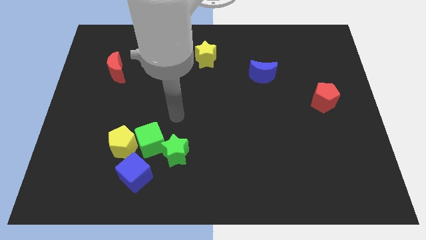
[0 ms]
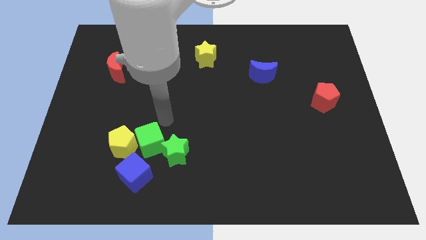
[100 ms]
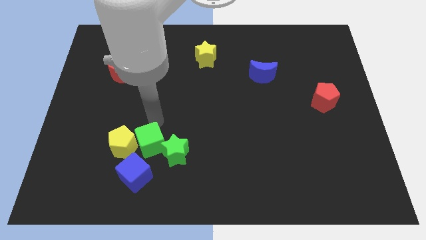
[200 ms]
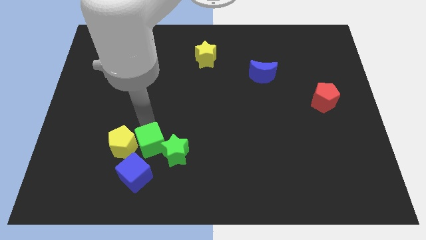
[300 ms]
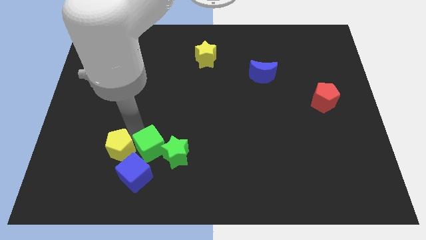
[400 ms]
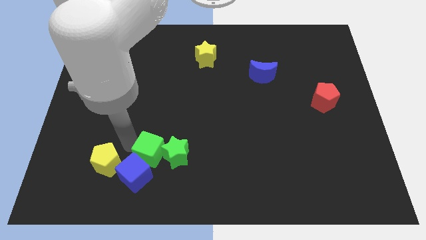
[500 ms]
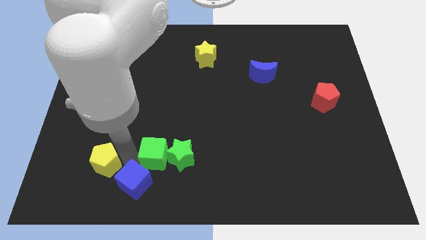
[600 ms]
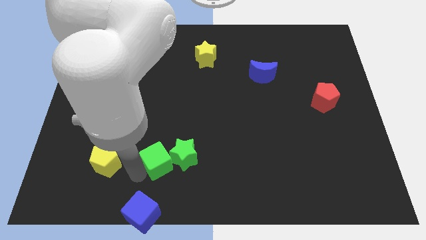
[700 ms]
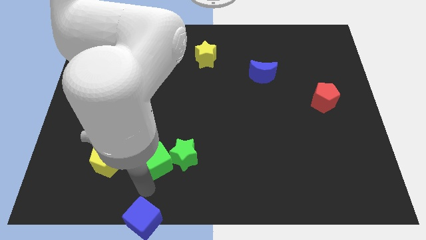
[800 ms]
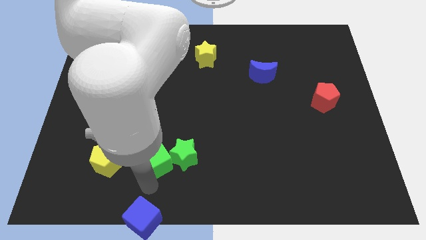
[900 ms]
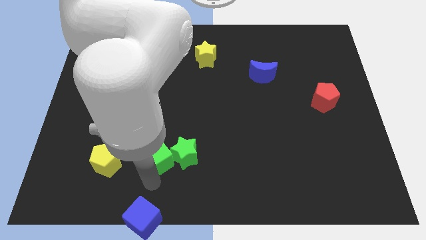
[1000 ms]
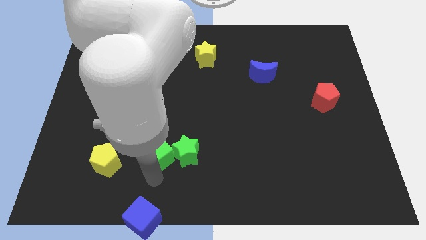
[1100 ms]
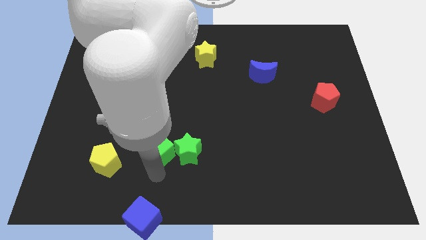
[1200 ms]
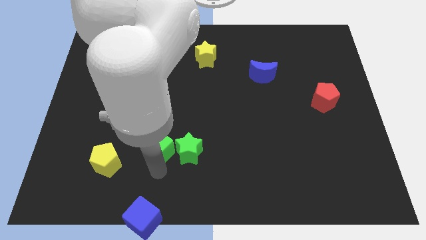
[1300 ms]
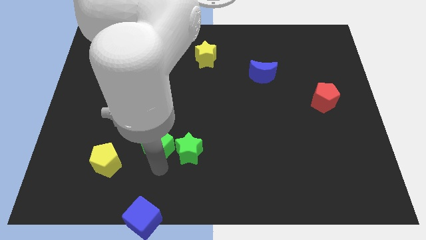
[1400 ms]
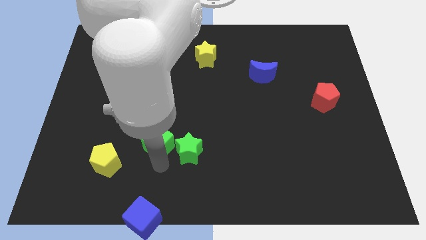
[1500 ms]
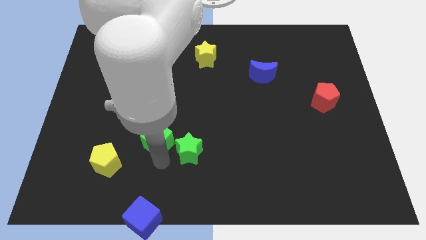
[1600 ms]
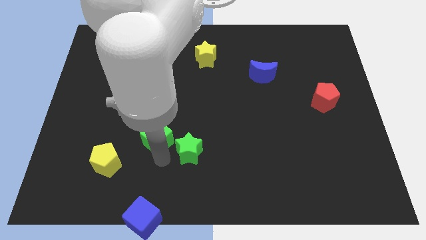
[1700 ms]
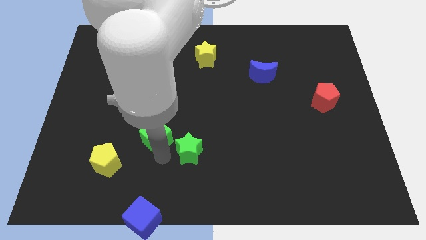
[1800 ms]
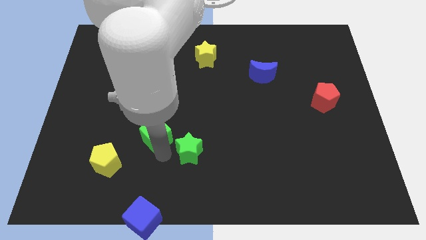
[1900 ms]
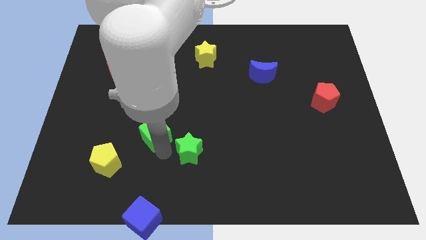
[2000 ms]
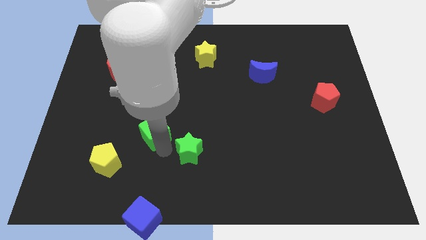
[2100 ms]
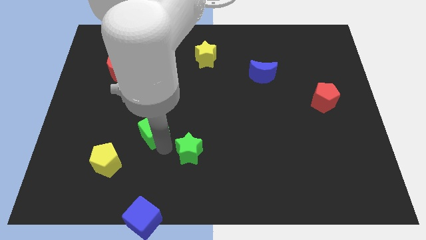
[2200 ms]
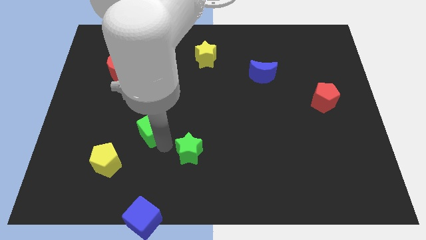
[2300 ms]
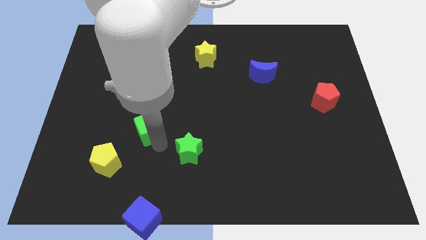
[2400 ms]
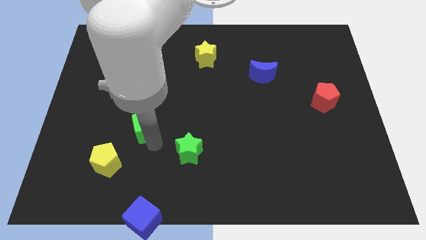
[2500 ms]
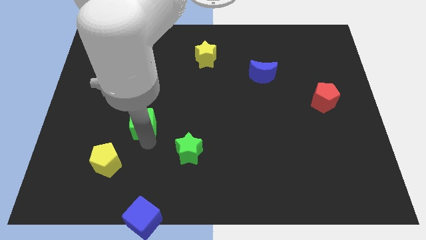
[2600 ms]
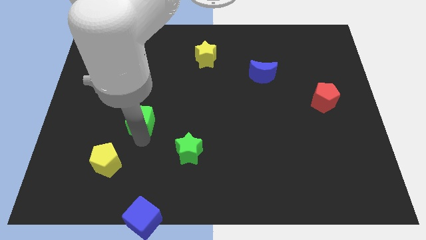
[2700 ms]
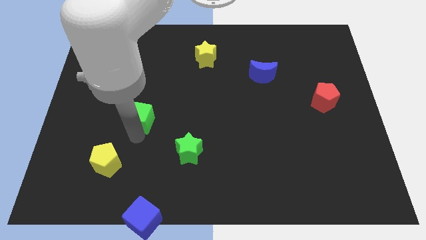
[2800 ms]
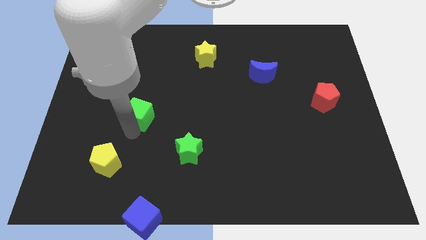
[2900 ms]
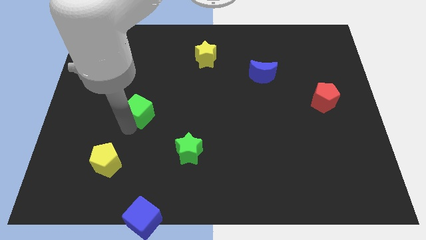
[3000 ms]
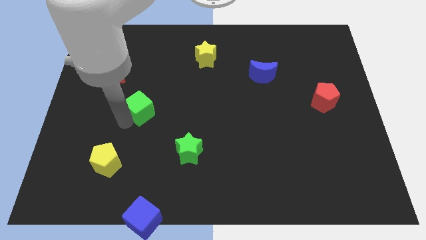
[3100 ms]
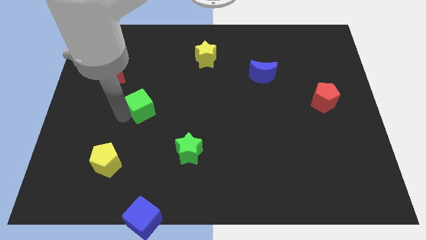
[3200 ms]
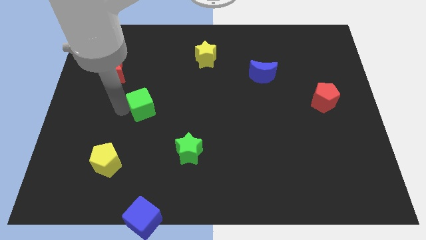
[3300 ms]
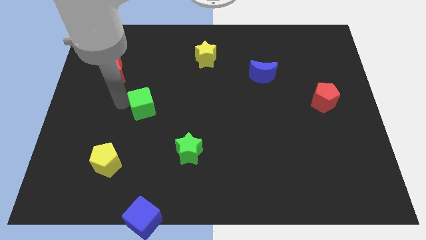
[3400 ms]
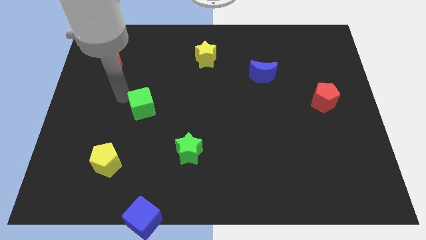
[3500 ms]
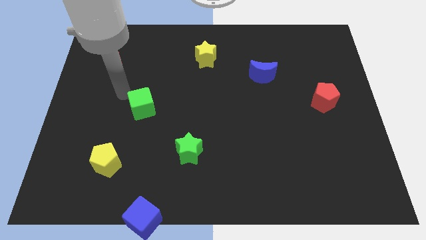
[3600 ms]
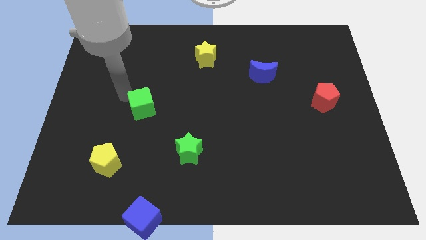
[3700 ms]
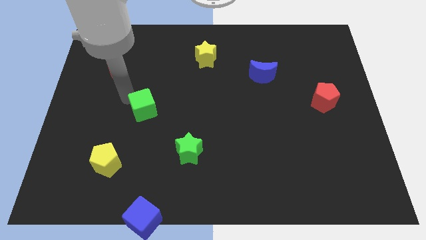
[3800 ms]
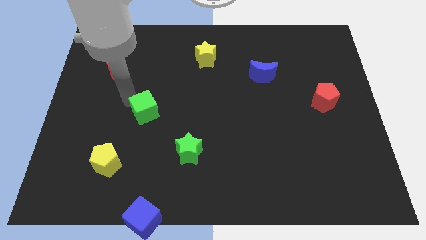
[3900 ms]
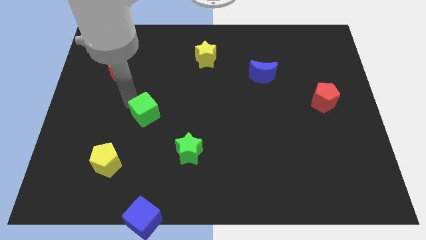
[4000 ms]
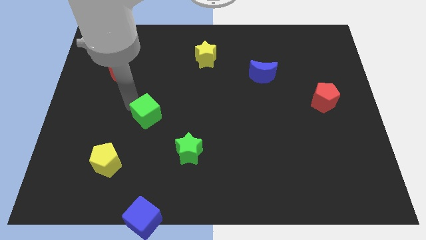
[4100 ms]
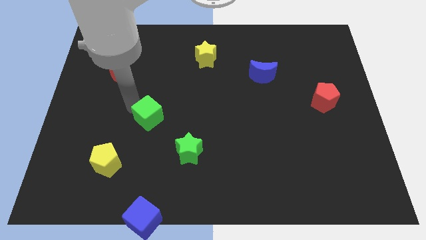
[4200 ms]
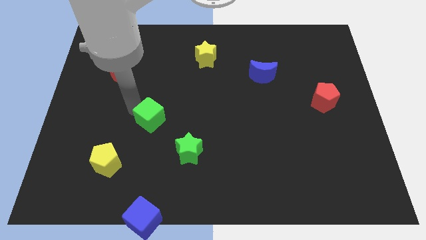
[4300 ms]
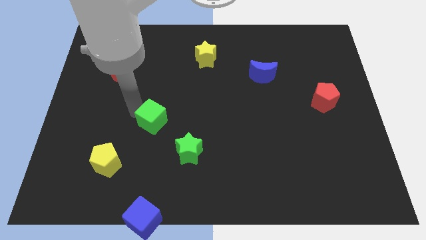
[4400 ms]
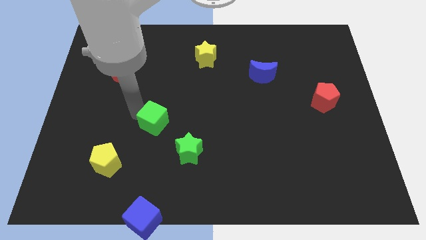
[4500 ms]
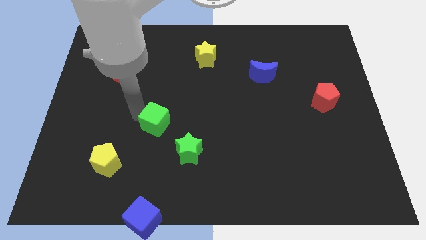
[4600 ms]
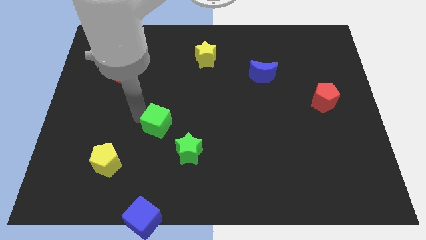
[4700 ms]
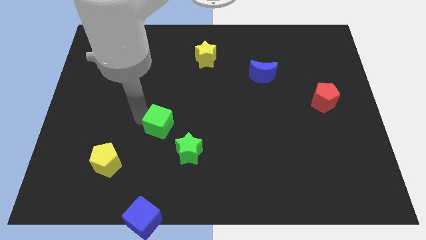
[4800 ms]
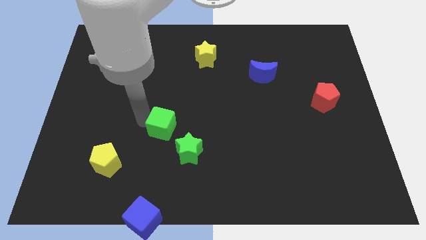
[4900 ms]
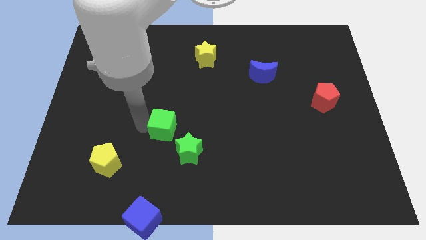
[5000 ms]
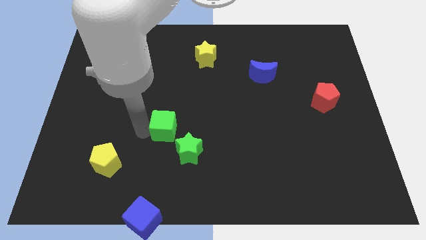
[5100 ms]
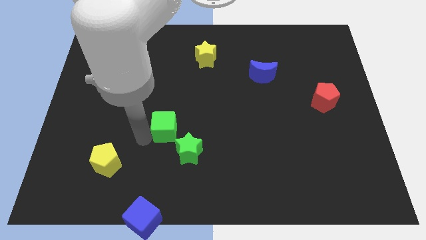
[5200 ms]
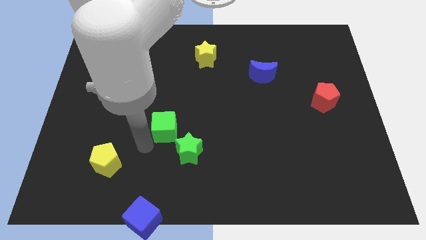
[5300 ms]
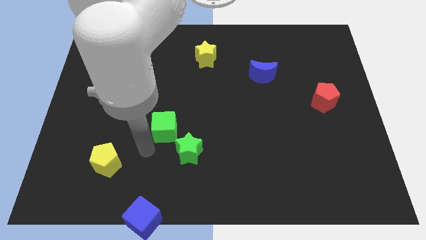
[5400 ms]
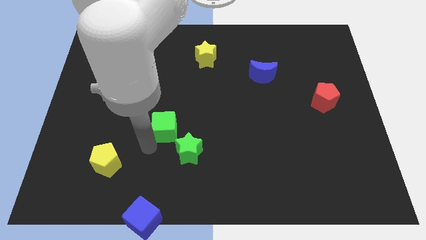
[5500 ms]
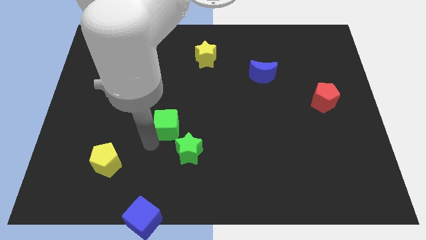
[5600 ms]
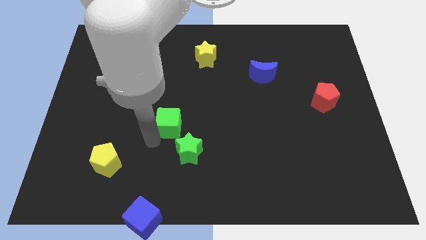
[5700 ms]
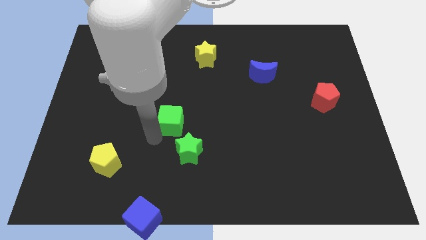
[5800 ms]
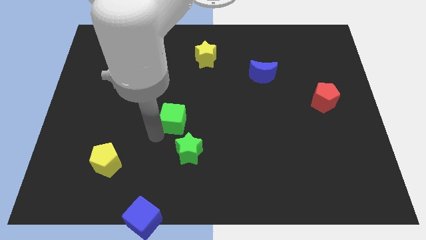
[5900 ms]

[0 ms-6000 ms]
slightly push the green cube diagonally upwards and to the right

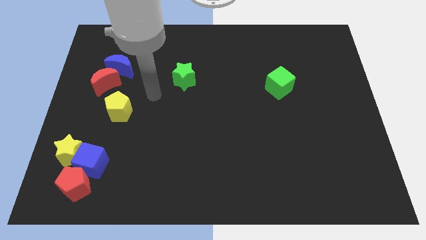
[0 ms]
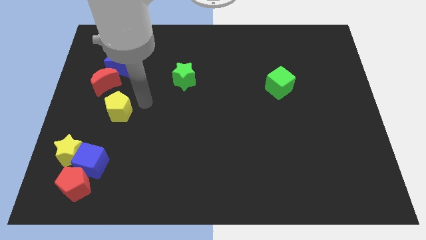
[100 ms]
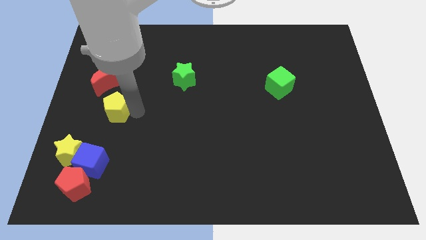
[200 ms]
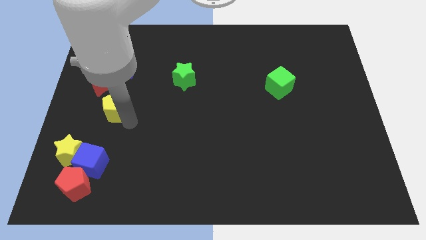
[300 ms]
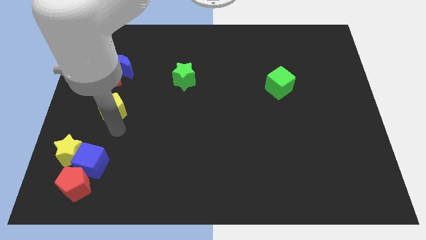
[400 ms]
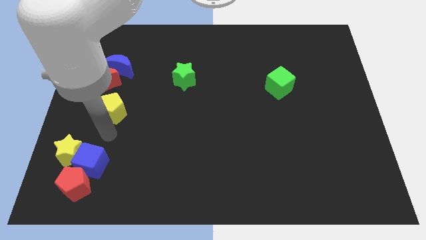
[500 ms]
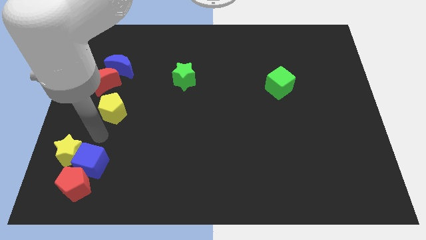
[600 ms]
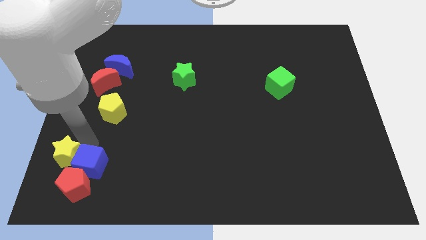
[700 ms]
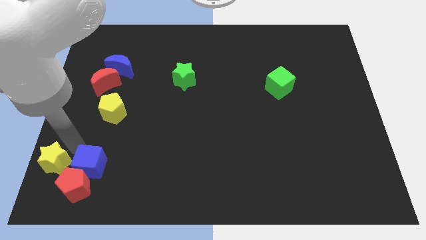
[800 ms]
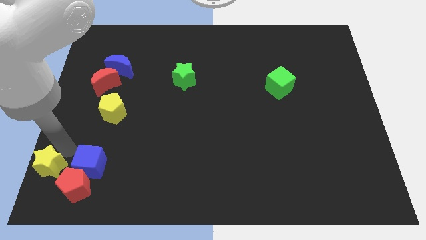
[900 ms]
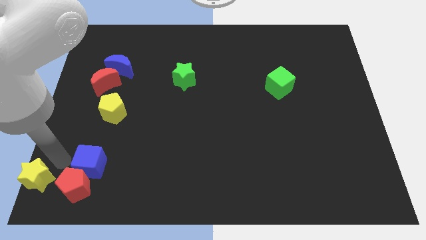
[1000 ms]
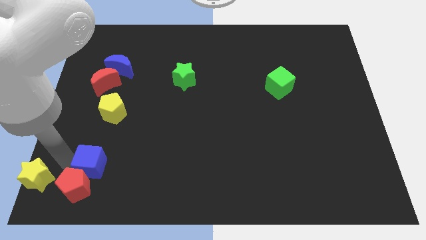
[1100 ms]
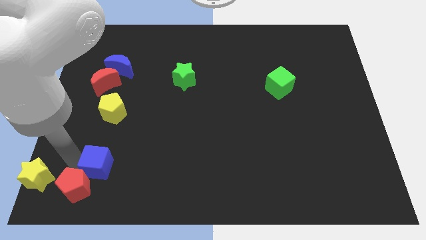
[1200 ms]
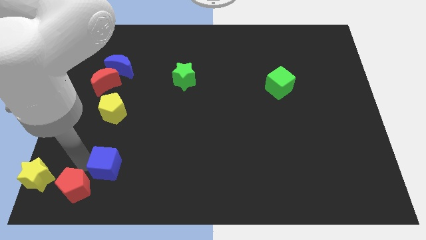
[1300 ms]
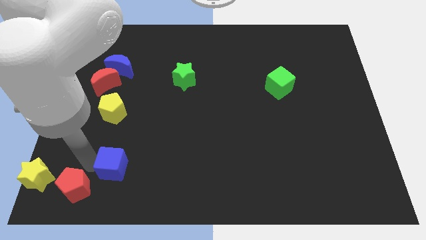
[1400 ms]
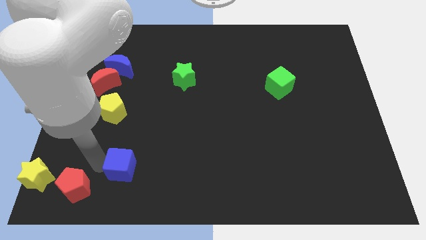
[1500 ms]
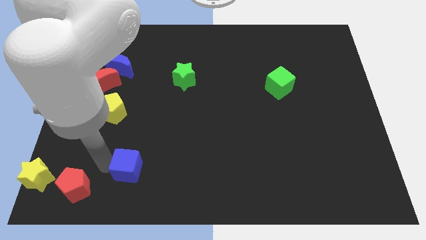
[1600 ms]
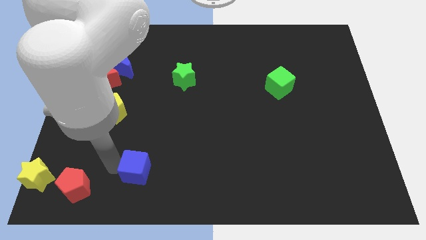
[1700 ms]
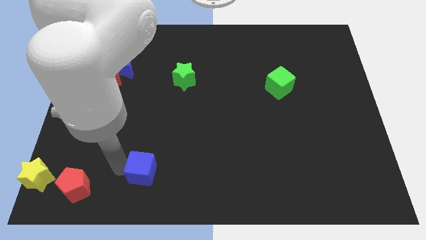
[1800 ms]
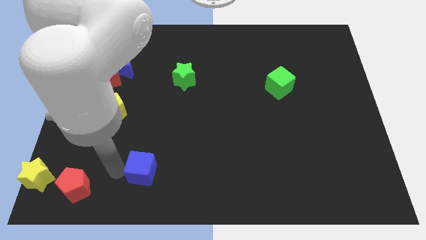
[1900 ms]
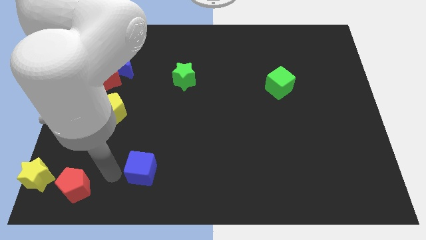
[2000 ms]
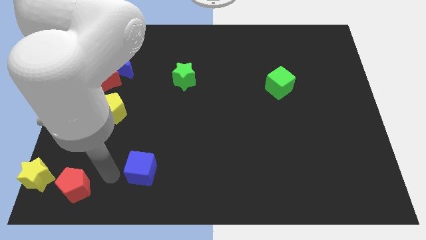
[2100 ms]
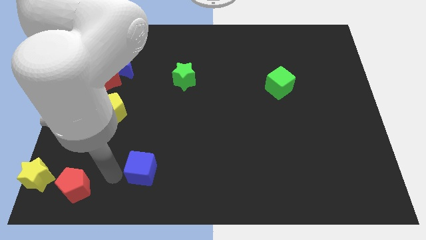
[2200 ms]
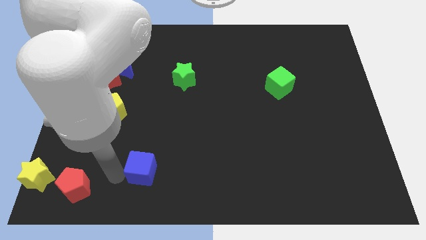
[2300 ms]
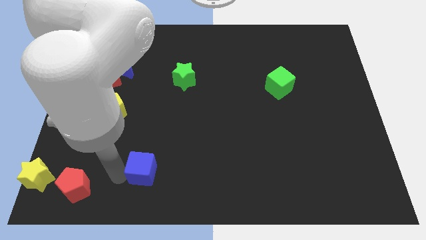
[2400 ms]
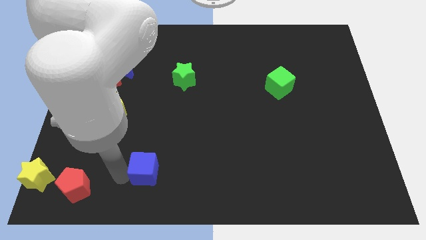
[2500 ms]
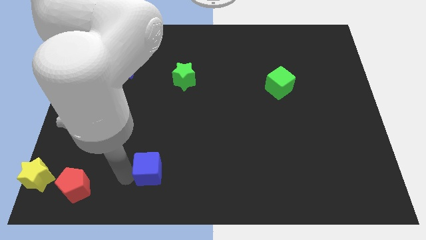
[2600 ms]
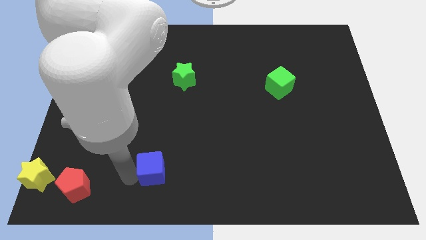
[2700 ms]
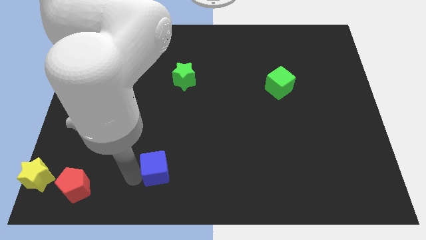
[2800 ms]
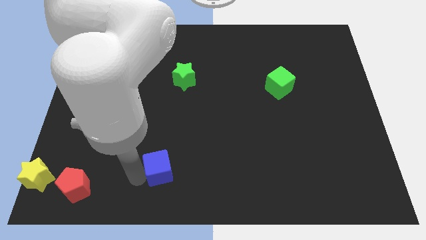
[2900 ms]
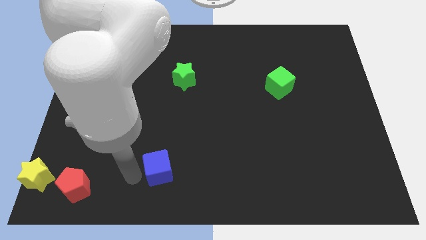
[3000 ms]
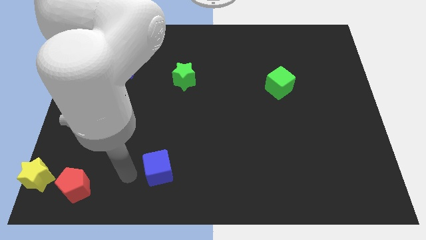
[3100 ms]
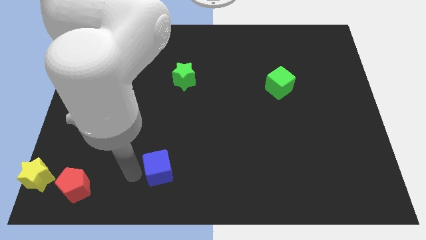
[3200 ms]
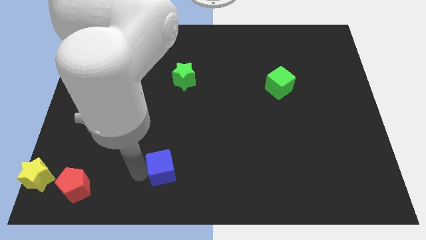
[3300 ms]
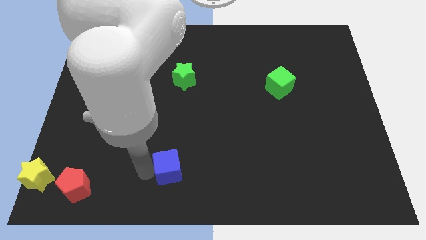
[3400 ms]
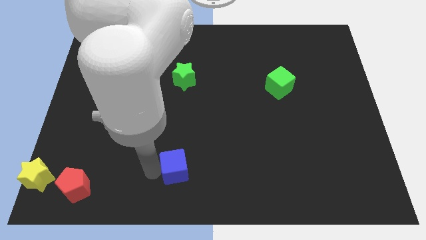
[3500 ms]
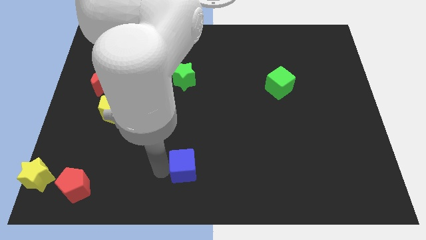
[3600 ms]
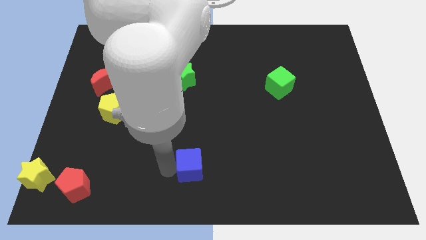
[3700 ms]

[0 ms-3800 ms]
push the blue cube right
